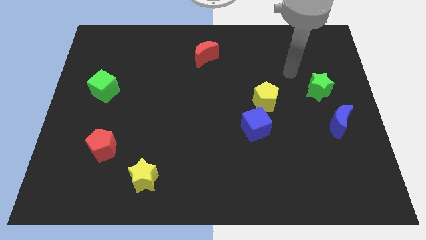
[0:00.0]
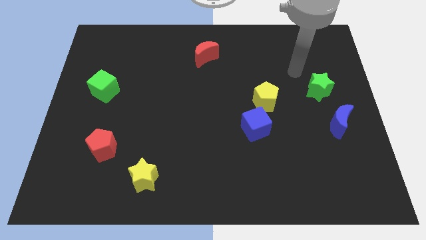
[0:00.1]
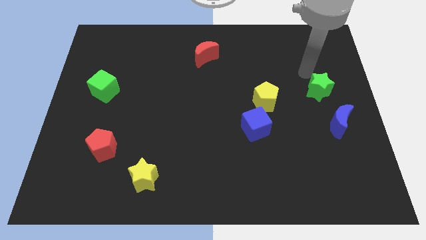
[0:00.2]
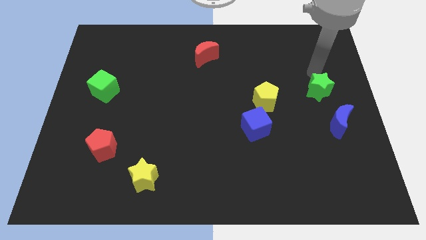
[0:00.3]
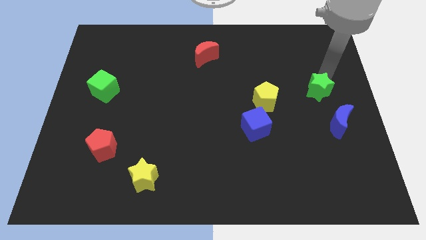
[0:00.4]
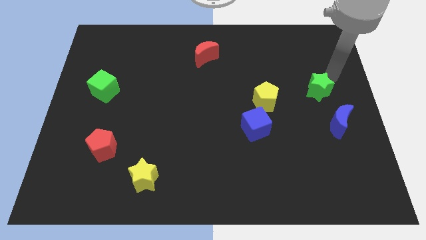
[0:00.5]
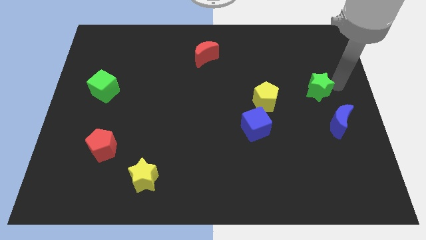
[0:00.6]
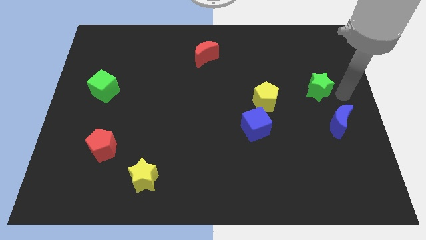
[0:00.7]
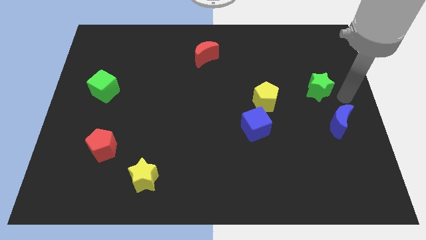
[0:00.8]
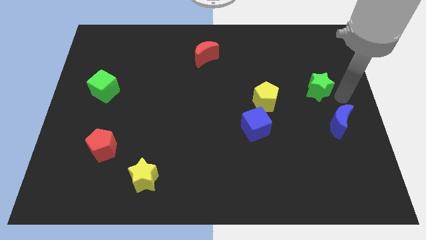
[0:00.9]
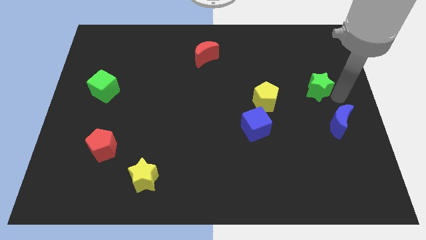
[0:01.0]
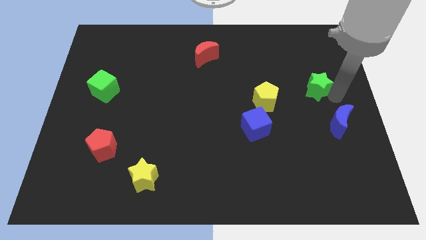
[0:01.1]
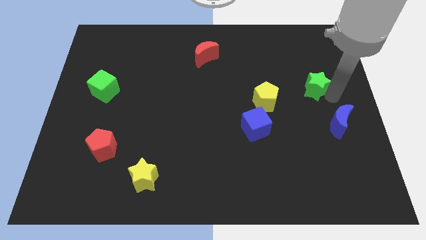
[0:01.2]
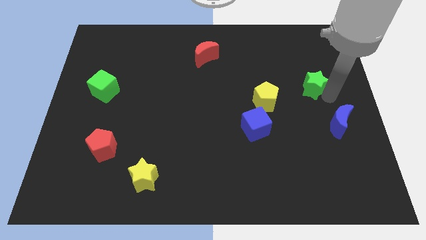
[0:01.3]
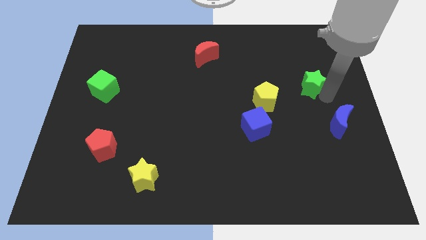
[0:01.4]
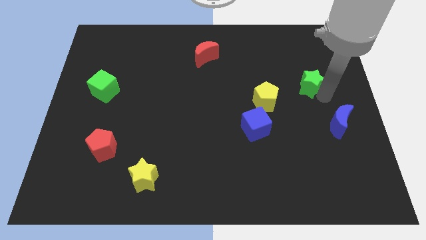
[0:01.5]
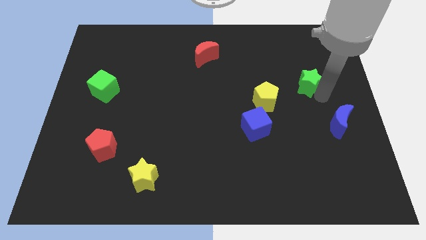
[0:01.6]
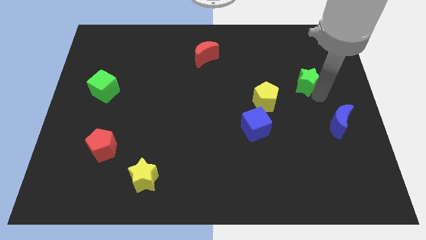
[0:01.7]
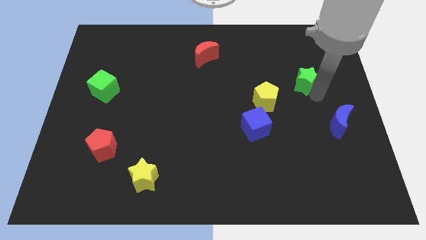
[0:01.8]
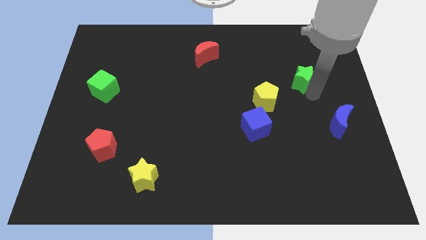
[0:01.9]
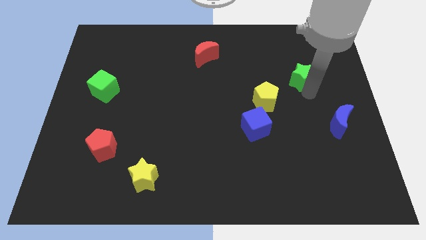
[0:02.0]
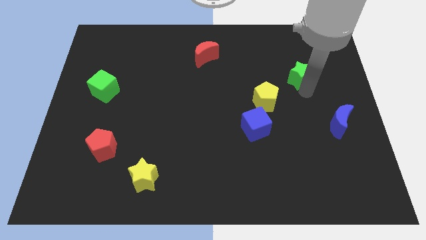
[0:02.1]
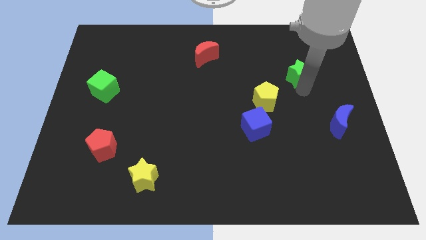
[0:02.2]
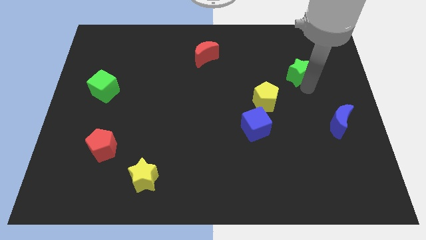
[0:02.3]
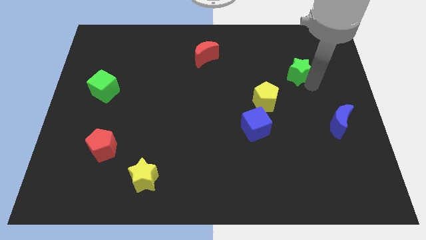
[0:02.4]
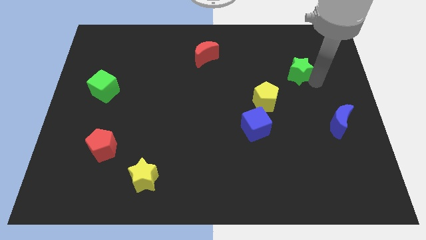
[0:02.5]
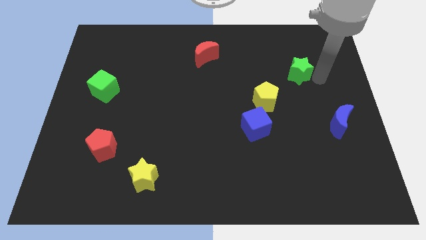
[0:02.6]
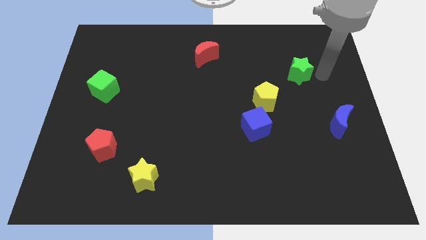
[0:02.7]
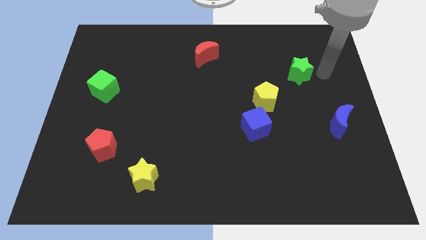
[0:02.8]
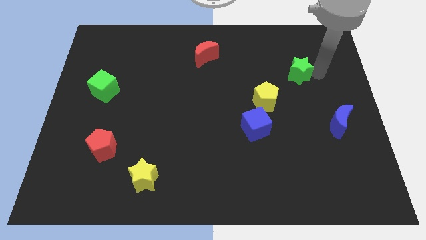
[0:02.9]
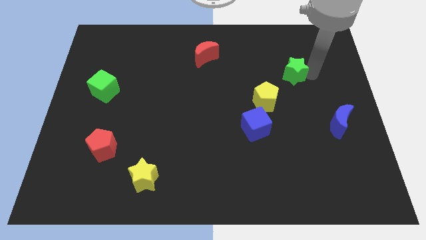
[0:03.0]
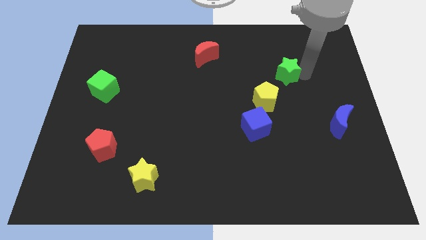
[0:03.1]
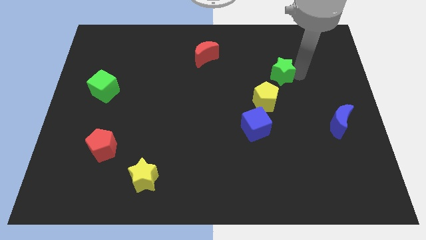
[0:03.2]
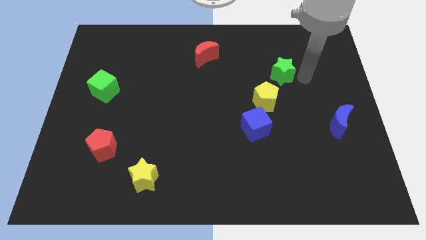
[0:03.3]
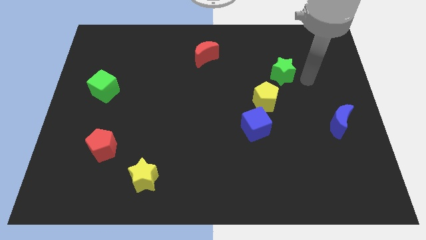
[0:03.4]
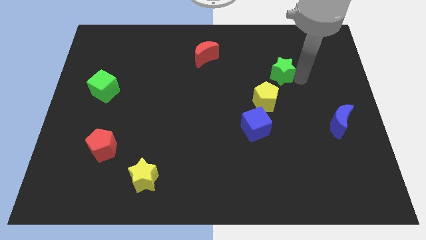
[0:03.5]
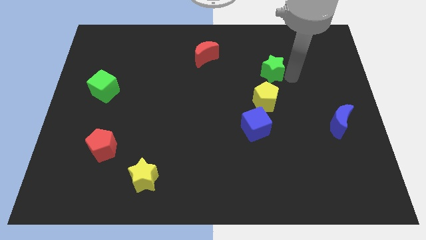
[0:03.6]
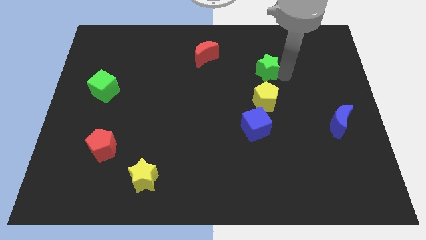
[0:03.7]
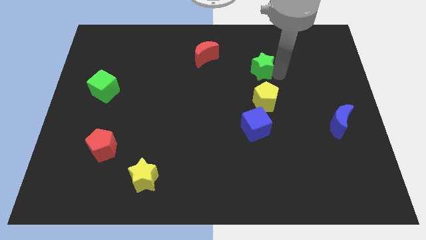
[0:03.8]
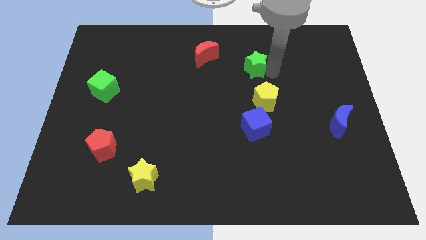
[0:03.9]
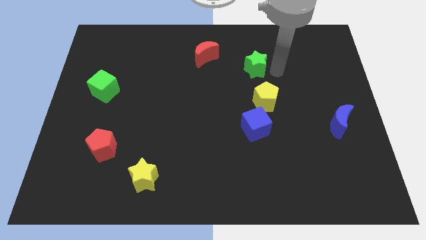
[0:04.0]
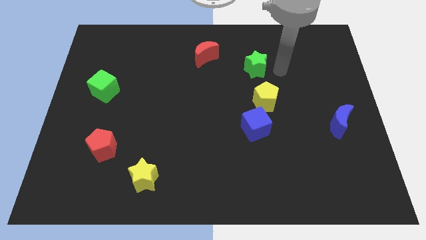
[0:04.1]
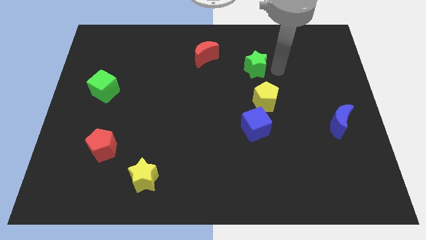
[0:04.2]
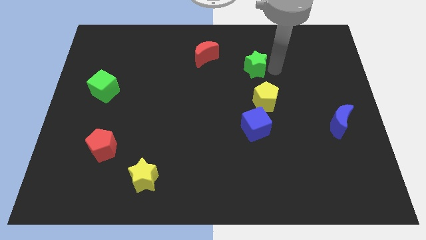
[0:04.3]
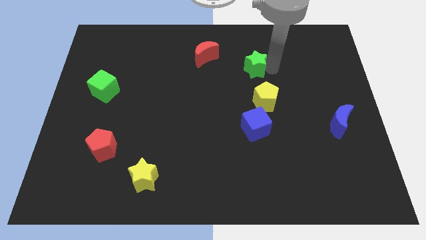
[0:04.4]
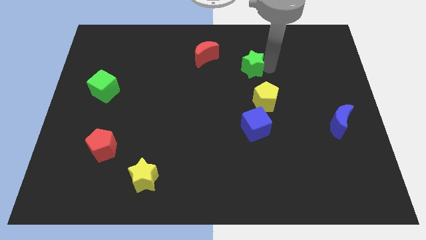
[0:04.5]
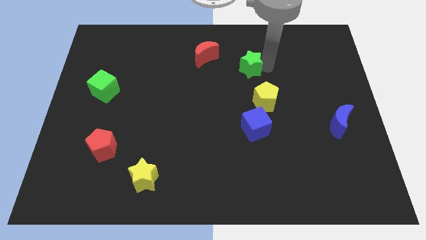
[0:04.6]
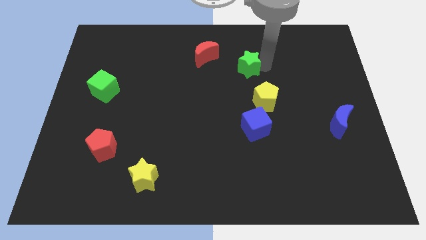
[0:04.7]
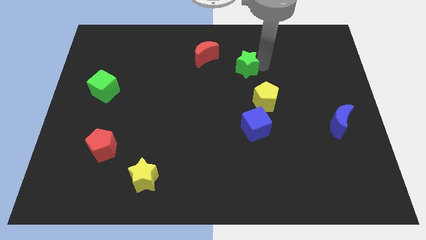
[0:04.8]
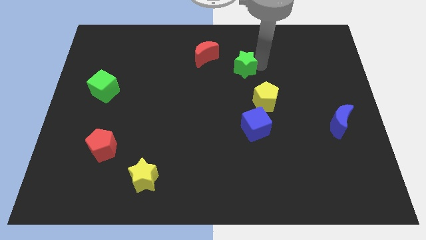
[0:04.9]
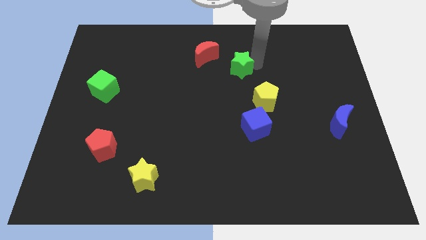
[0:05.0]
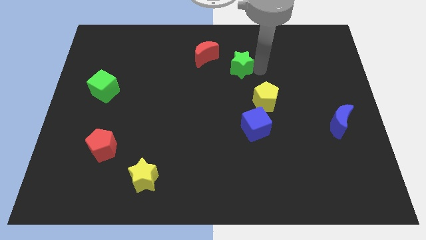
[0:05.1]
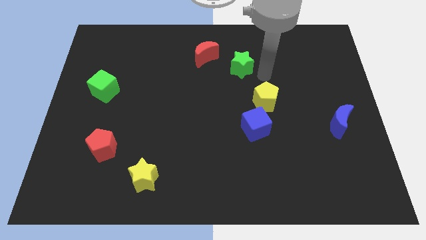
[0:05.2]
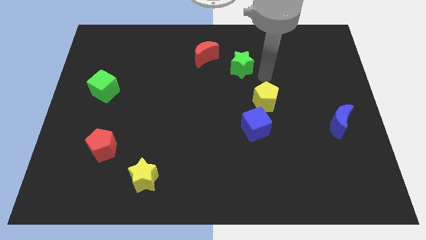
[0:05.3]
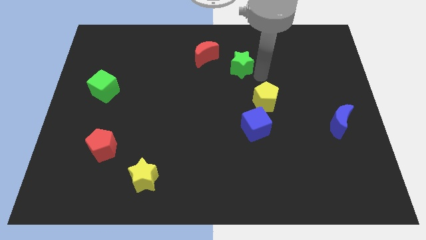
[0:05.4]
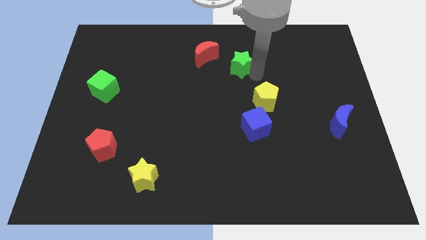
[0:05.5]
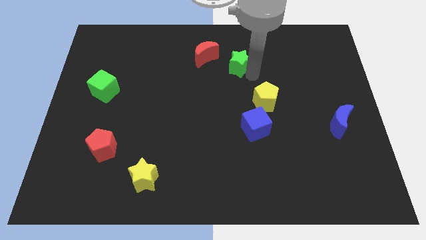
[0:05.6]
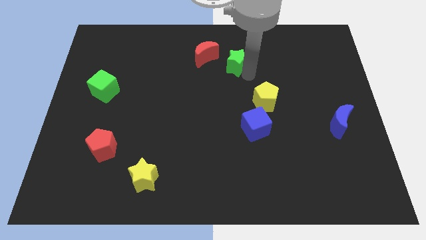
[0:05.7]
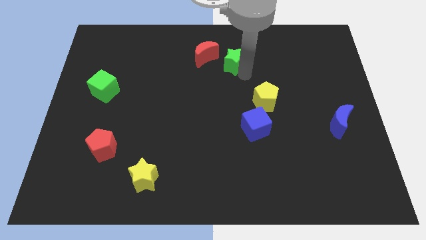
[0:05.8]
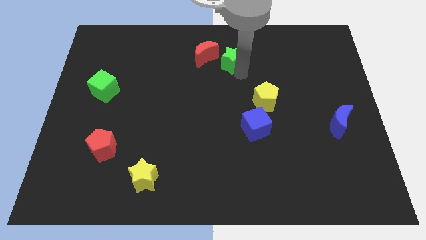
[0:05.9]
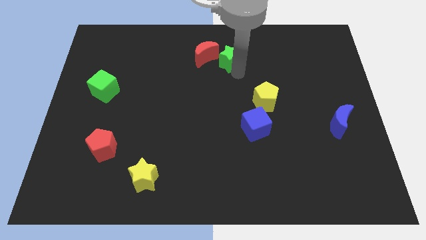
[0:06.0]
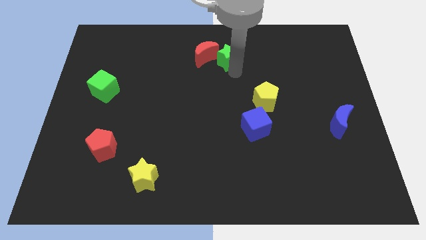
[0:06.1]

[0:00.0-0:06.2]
move the green star to the red moon

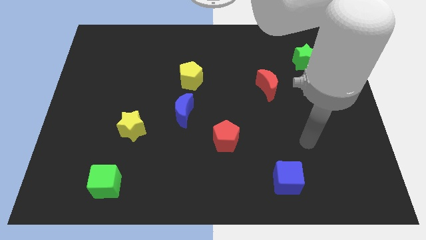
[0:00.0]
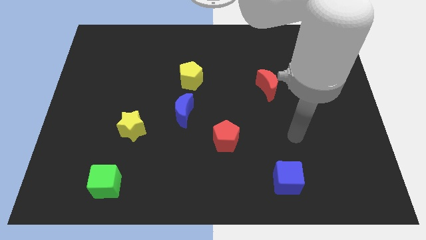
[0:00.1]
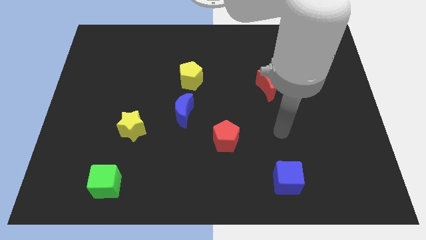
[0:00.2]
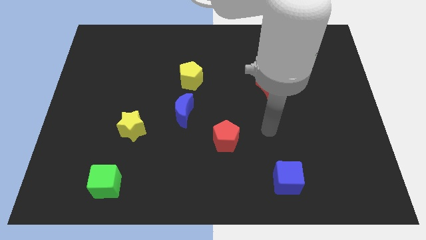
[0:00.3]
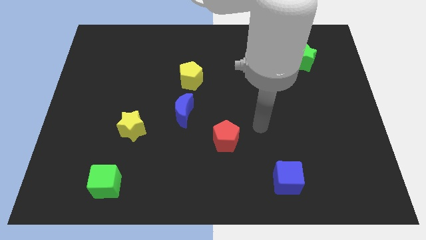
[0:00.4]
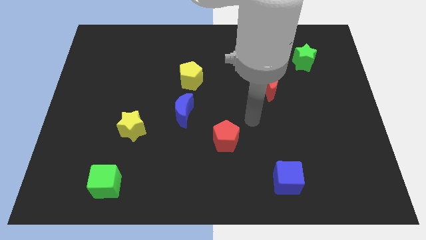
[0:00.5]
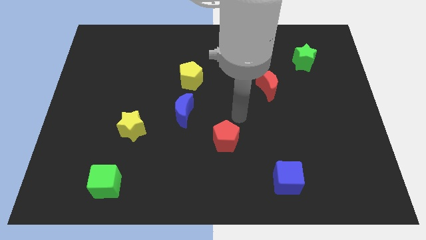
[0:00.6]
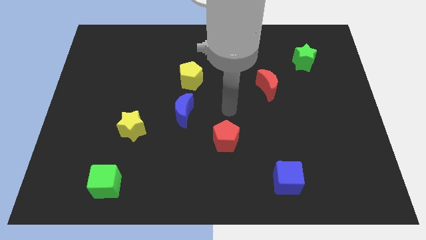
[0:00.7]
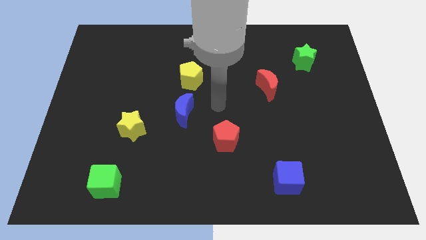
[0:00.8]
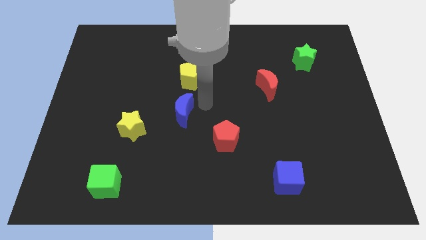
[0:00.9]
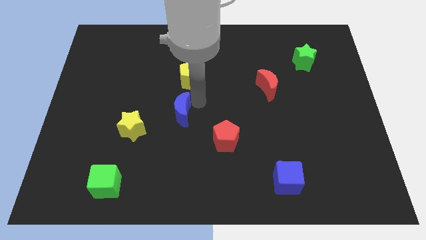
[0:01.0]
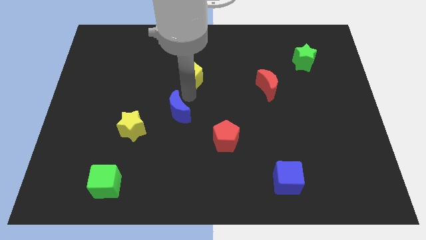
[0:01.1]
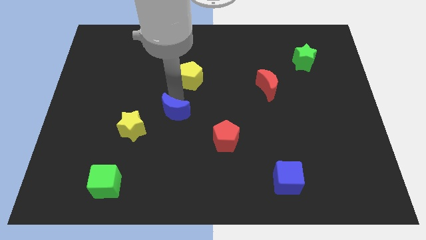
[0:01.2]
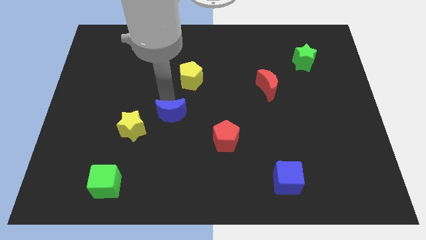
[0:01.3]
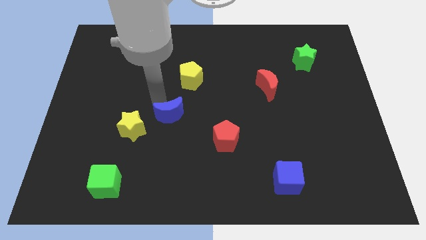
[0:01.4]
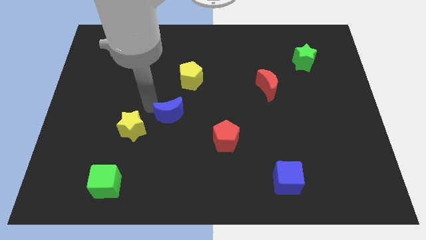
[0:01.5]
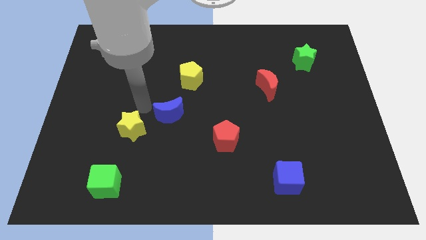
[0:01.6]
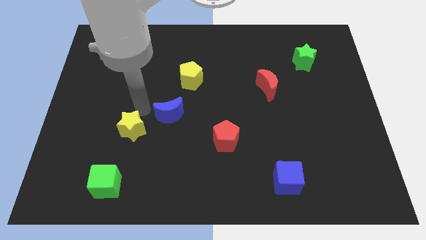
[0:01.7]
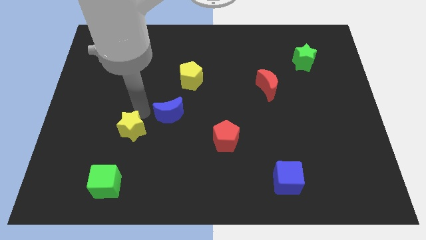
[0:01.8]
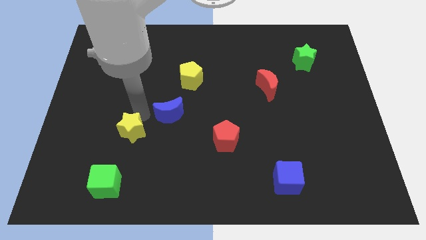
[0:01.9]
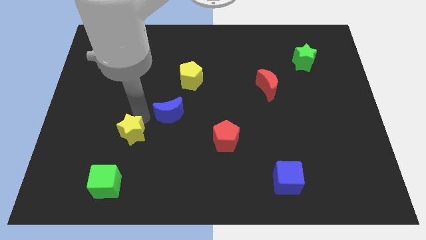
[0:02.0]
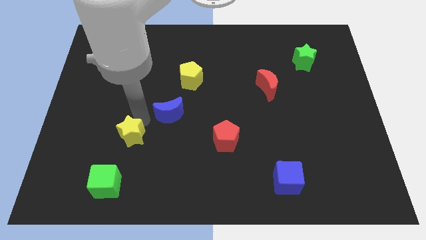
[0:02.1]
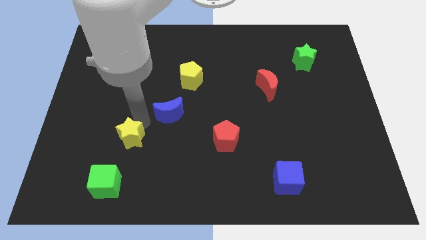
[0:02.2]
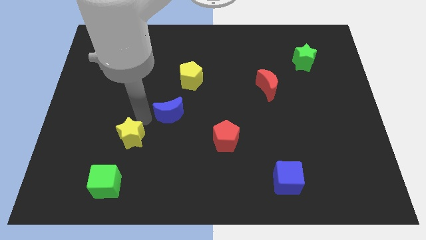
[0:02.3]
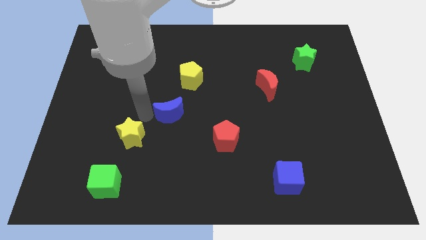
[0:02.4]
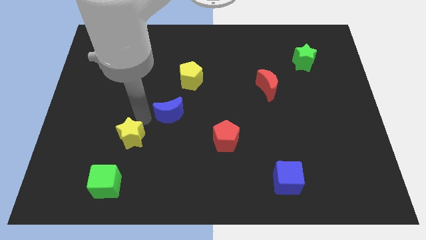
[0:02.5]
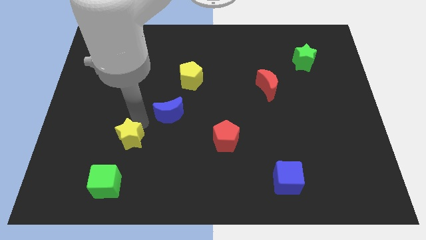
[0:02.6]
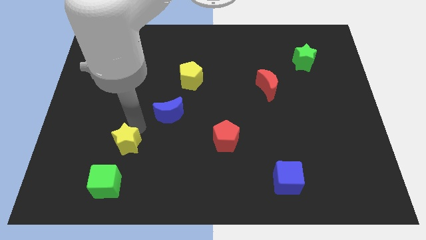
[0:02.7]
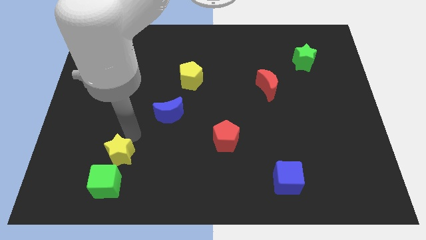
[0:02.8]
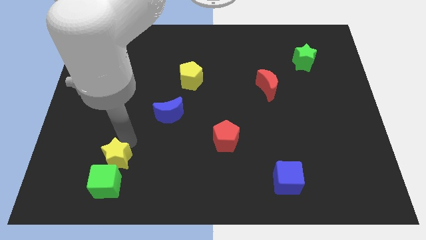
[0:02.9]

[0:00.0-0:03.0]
move the yellow star close to the green cube
